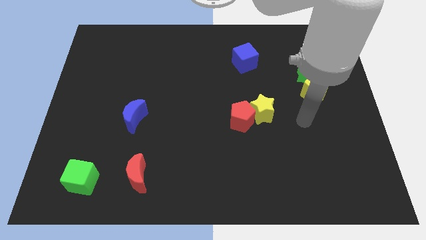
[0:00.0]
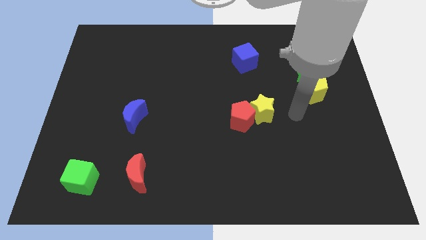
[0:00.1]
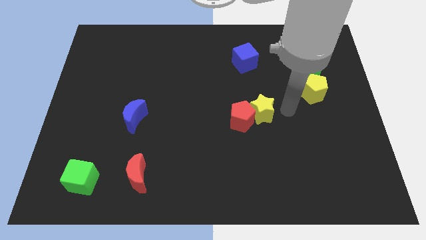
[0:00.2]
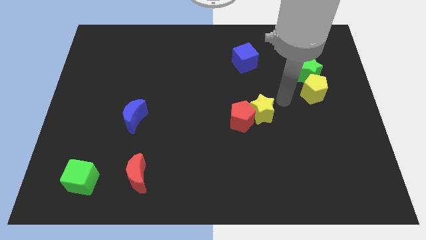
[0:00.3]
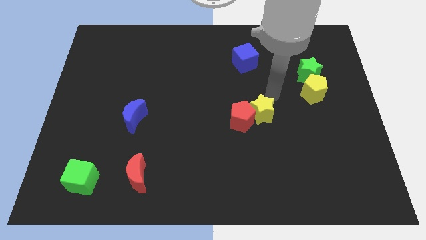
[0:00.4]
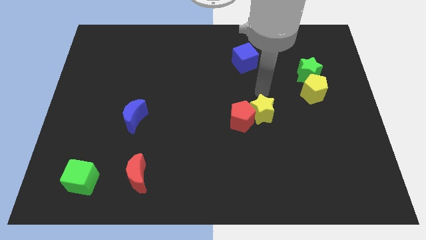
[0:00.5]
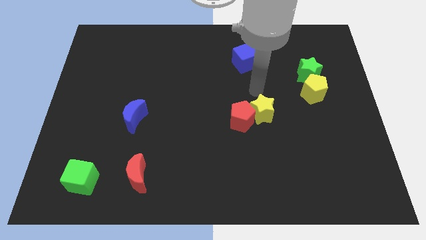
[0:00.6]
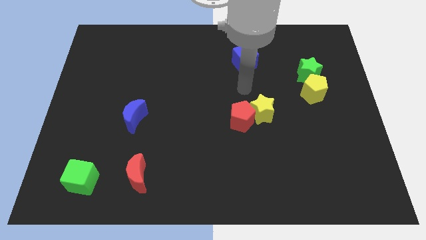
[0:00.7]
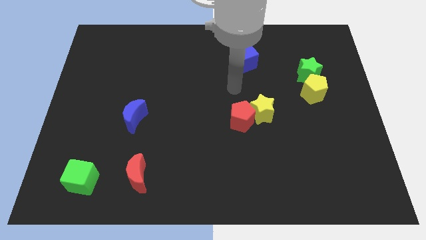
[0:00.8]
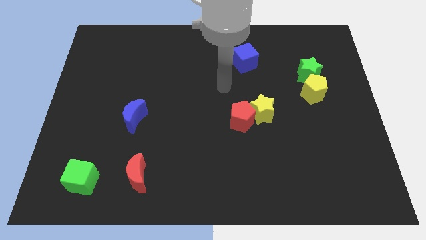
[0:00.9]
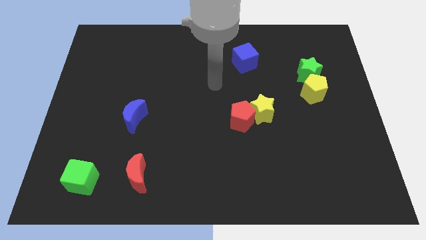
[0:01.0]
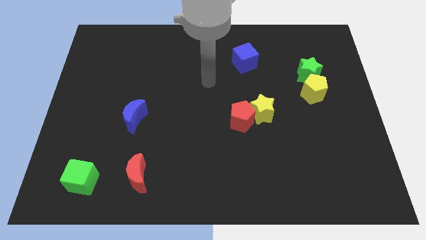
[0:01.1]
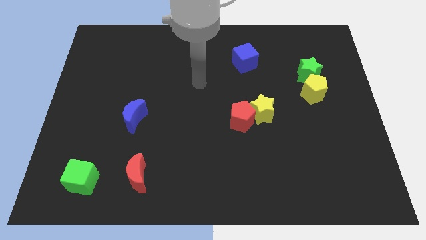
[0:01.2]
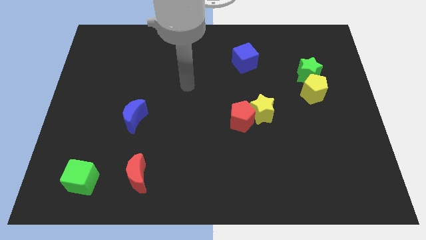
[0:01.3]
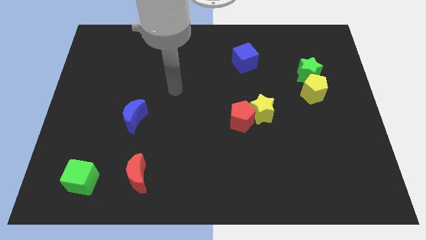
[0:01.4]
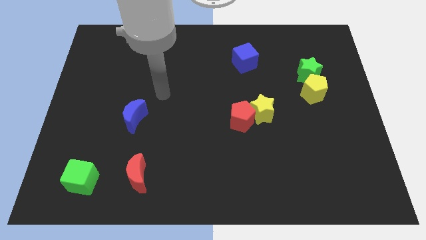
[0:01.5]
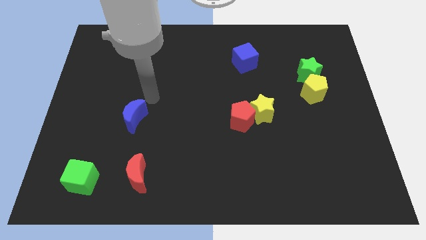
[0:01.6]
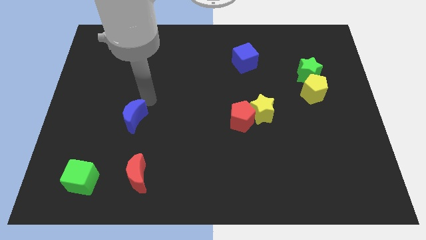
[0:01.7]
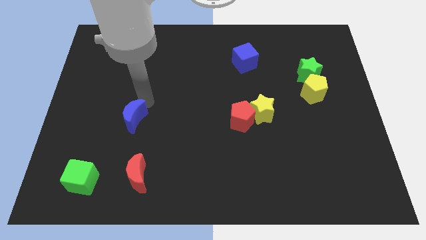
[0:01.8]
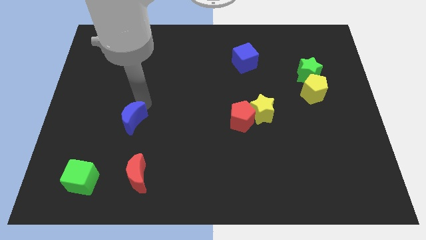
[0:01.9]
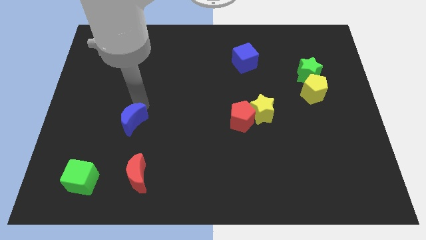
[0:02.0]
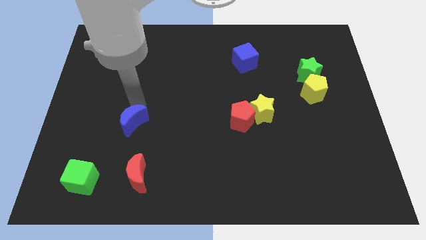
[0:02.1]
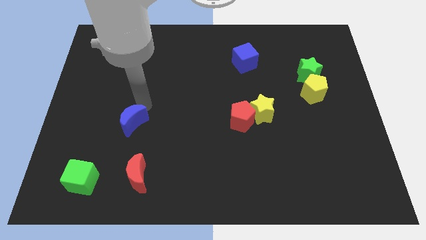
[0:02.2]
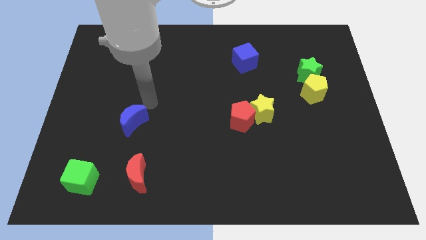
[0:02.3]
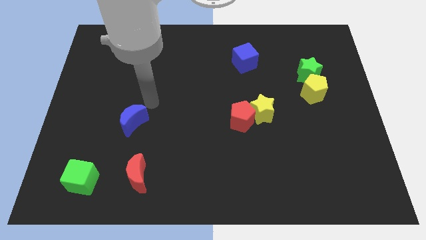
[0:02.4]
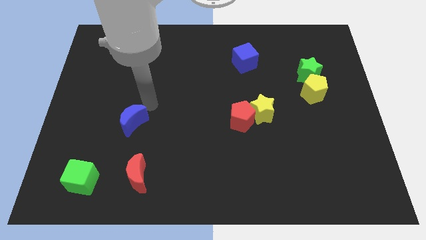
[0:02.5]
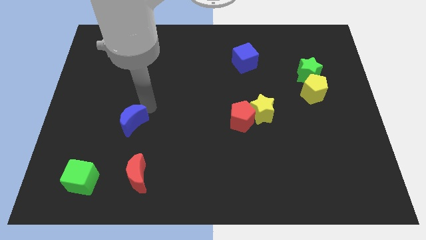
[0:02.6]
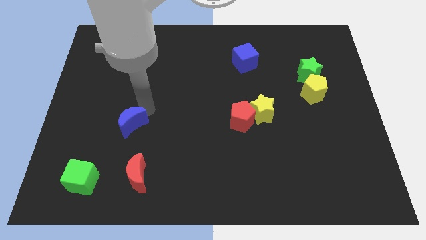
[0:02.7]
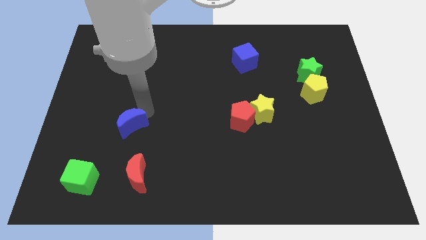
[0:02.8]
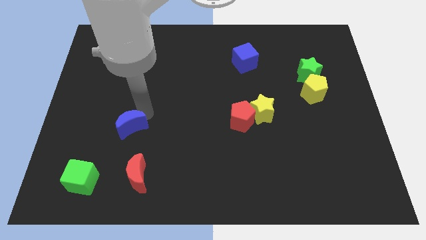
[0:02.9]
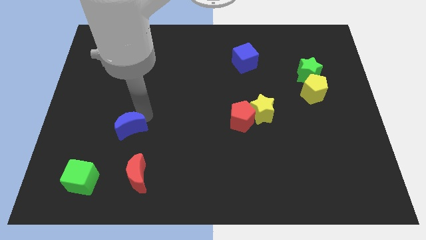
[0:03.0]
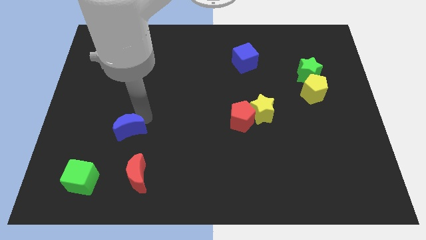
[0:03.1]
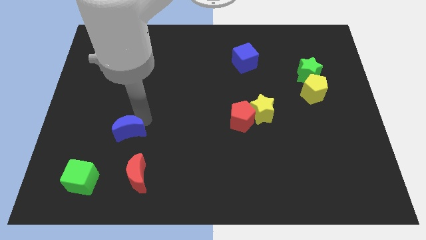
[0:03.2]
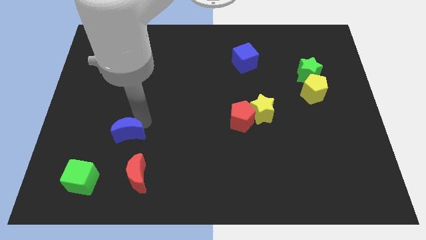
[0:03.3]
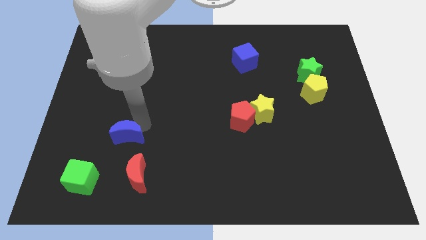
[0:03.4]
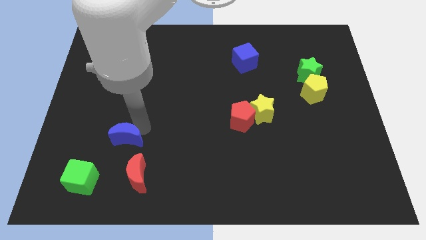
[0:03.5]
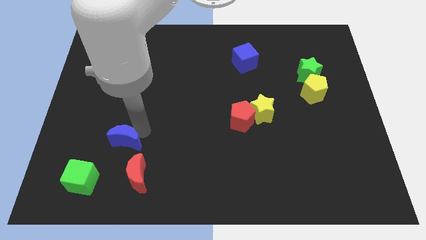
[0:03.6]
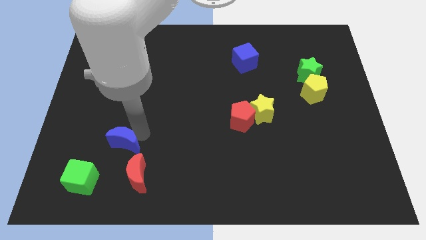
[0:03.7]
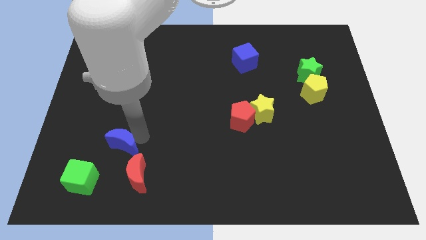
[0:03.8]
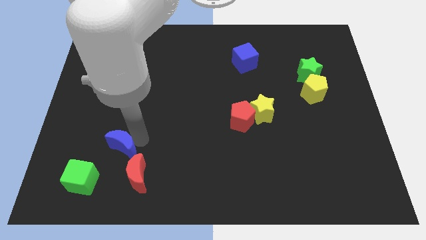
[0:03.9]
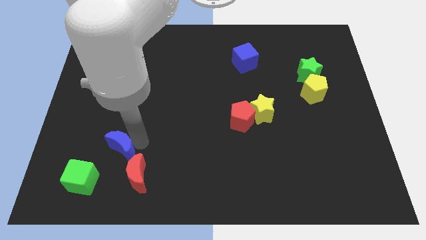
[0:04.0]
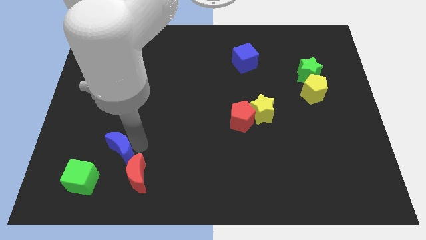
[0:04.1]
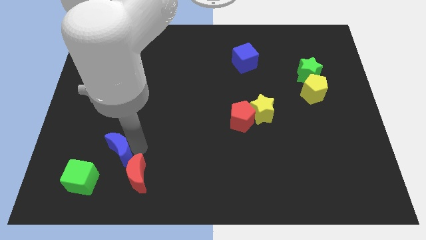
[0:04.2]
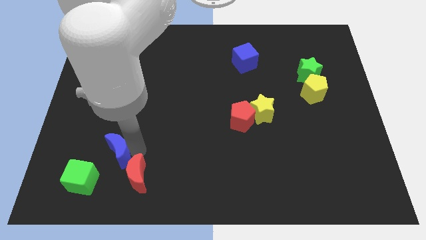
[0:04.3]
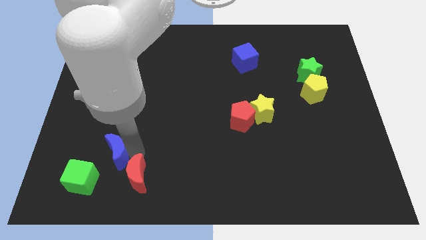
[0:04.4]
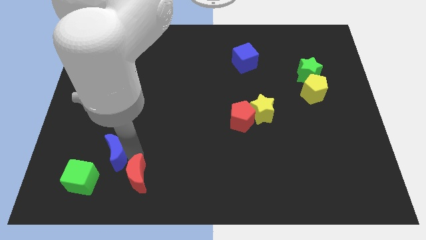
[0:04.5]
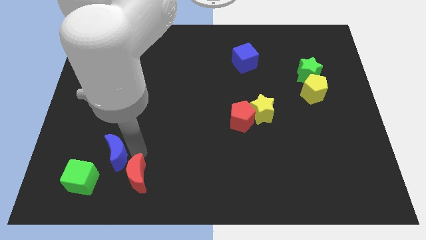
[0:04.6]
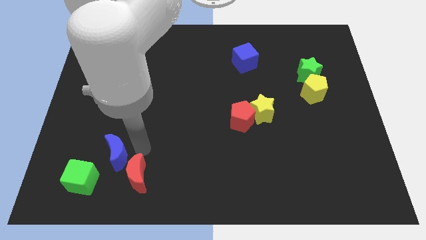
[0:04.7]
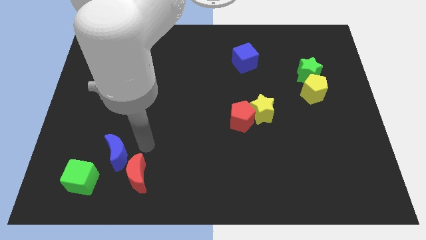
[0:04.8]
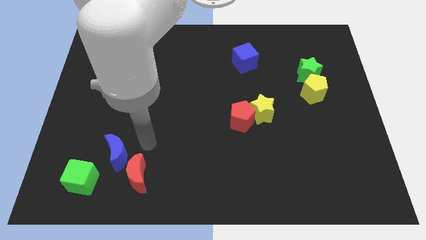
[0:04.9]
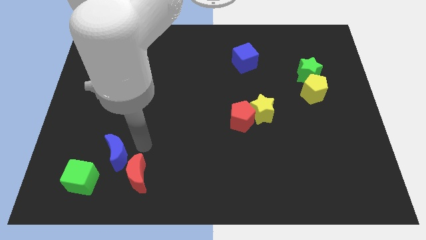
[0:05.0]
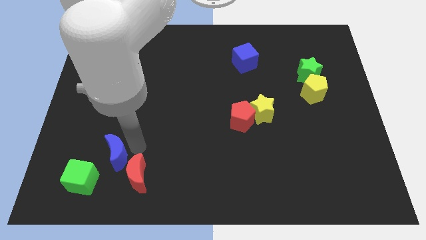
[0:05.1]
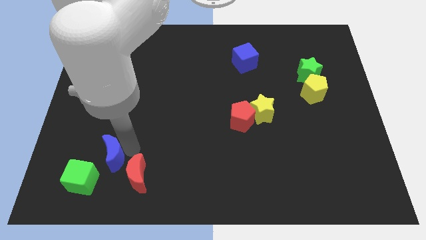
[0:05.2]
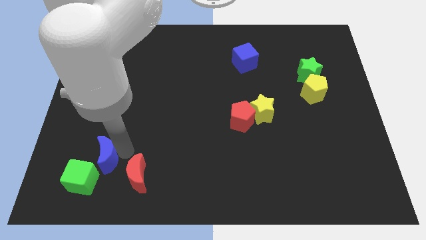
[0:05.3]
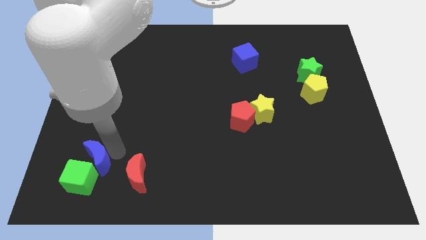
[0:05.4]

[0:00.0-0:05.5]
put the blue moon towards the green cube
